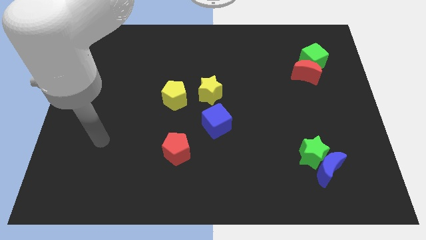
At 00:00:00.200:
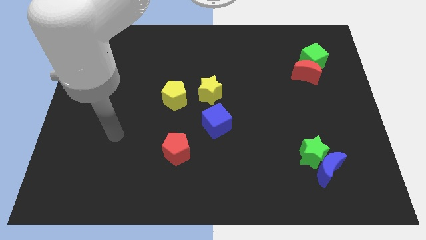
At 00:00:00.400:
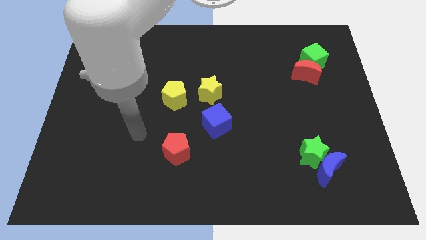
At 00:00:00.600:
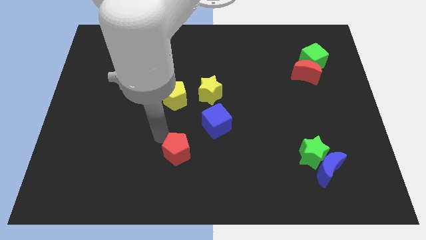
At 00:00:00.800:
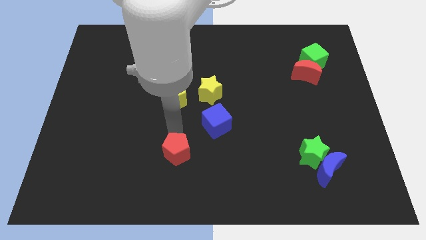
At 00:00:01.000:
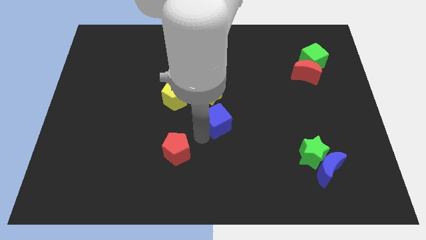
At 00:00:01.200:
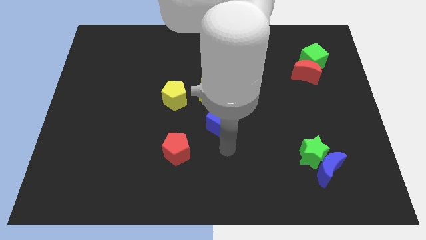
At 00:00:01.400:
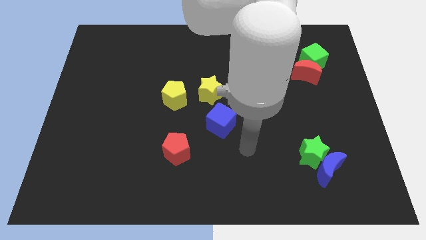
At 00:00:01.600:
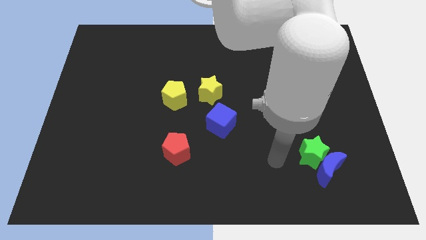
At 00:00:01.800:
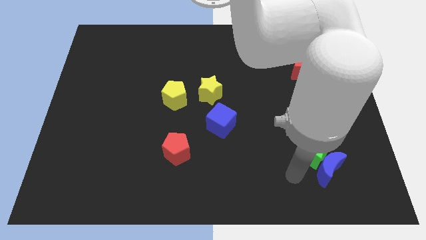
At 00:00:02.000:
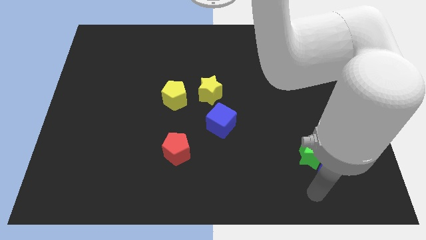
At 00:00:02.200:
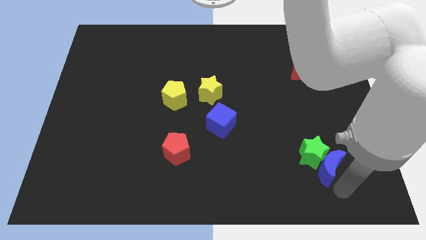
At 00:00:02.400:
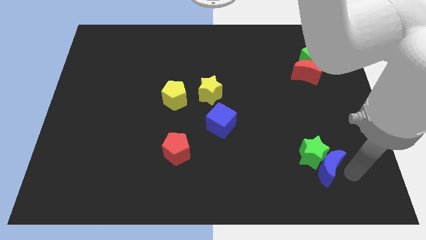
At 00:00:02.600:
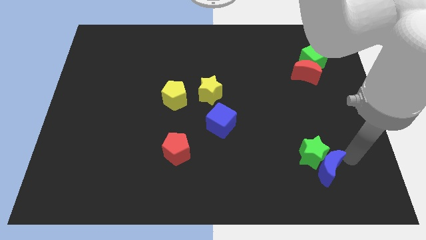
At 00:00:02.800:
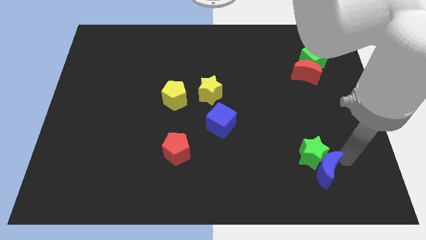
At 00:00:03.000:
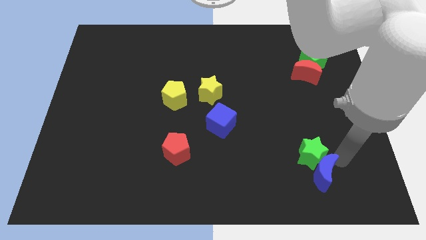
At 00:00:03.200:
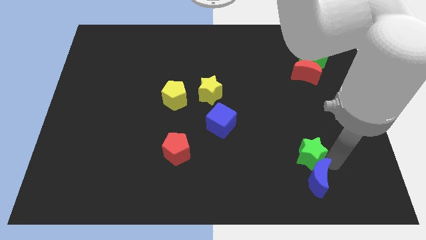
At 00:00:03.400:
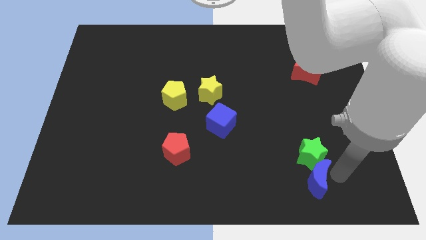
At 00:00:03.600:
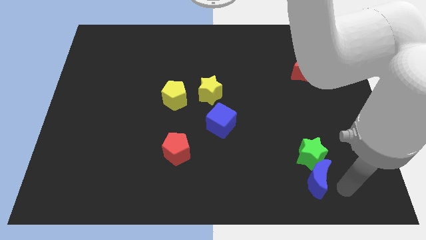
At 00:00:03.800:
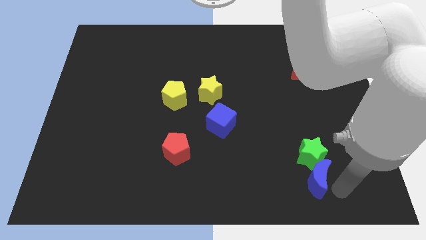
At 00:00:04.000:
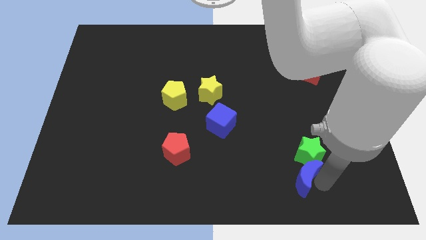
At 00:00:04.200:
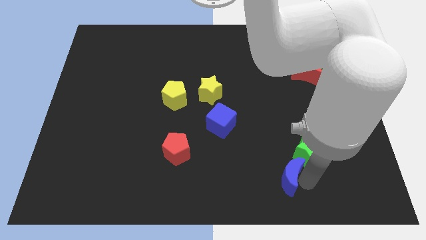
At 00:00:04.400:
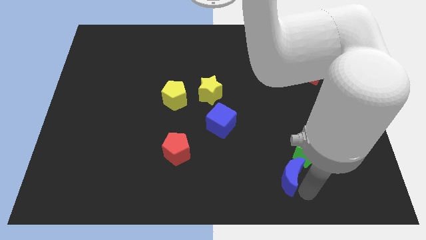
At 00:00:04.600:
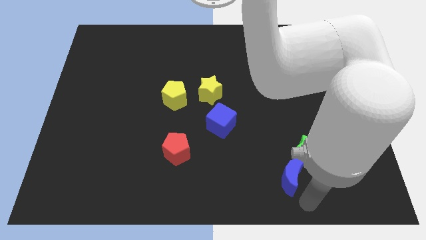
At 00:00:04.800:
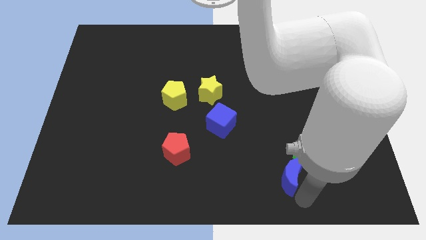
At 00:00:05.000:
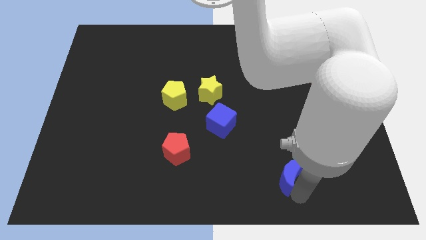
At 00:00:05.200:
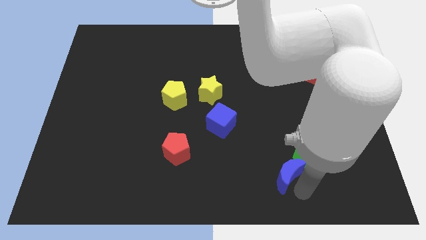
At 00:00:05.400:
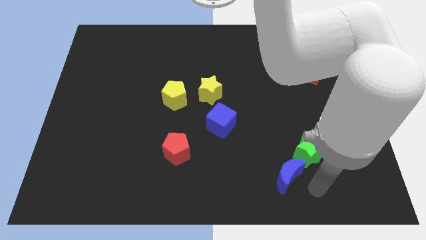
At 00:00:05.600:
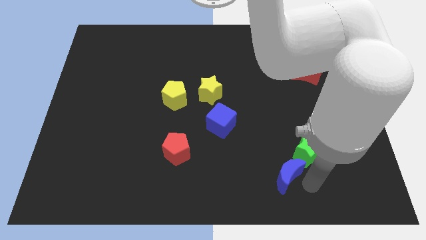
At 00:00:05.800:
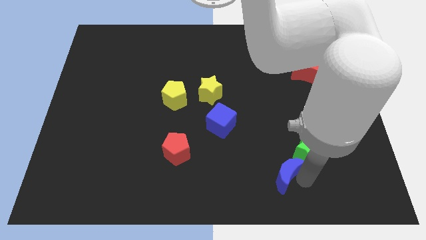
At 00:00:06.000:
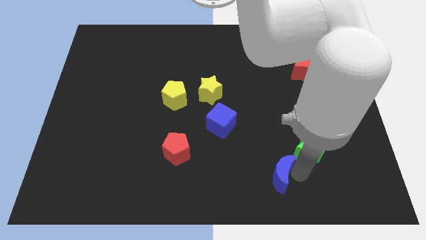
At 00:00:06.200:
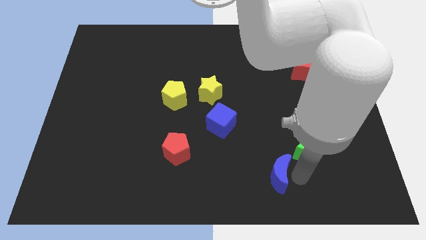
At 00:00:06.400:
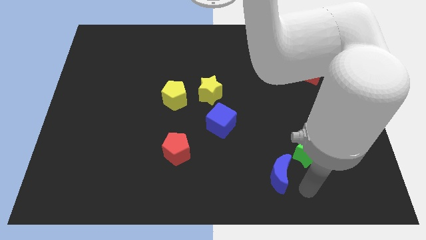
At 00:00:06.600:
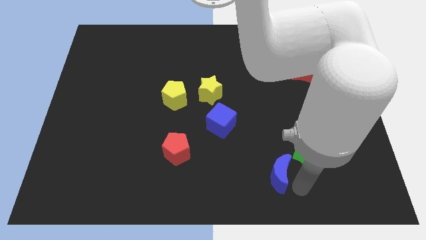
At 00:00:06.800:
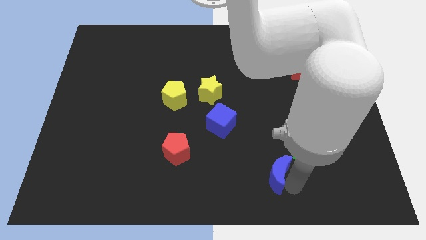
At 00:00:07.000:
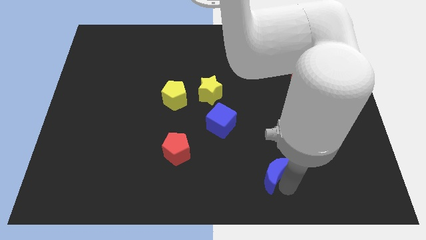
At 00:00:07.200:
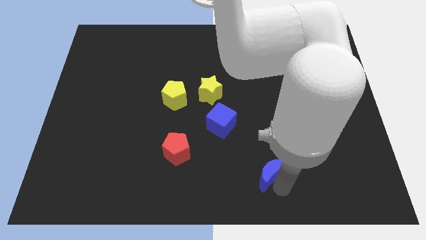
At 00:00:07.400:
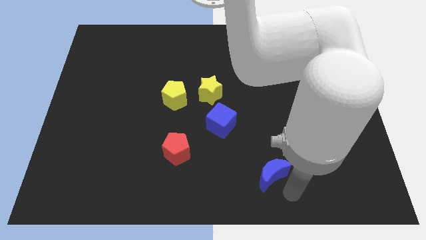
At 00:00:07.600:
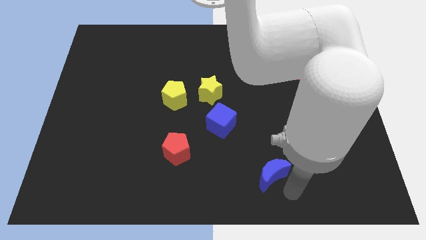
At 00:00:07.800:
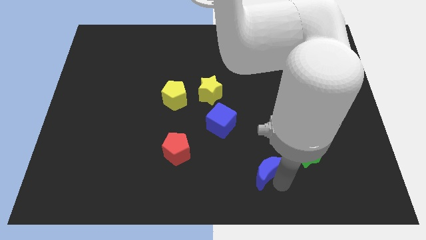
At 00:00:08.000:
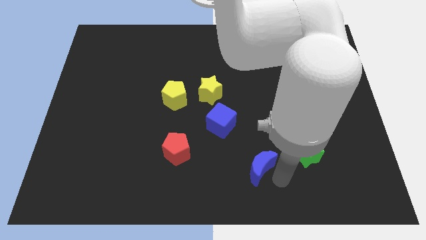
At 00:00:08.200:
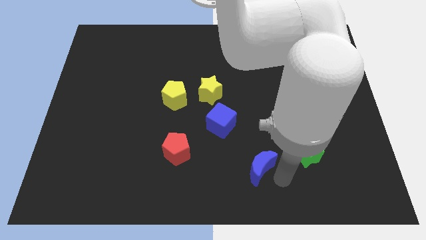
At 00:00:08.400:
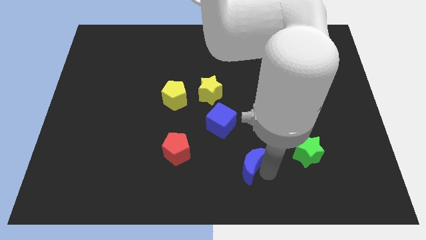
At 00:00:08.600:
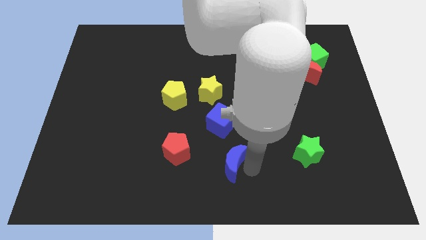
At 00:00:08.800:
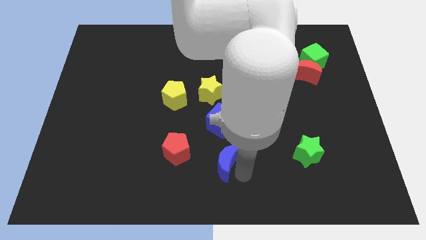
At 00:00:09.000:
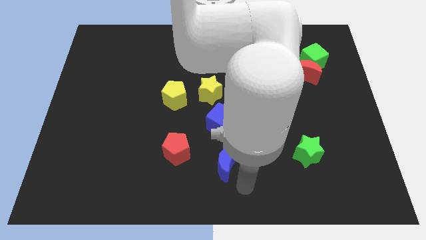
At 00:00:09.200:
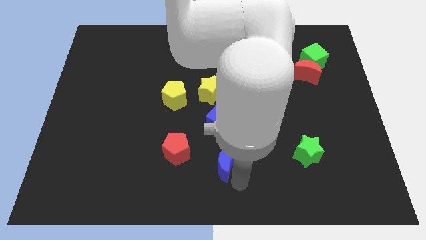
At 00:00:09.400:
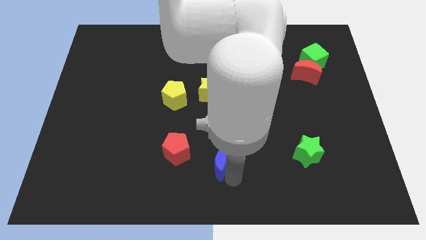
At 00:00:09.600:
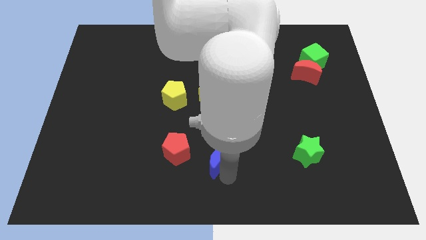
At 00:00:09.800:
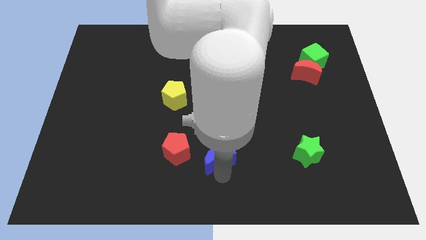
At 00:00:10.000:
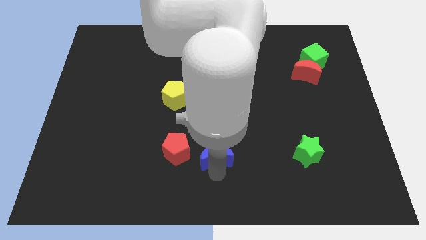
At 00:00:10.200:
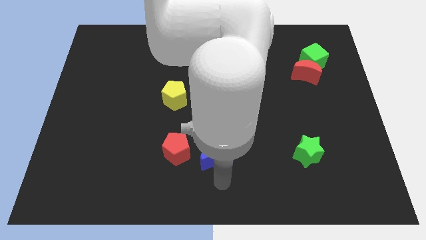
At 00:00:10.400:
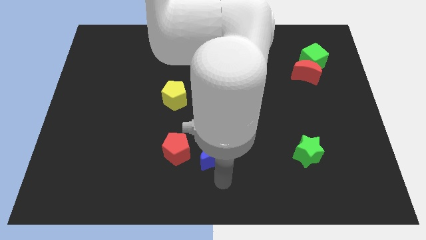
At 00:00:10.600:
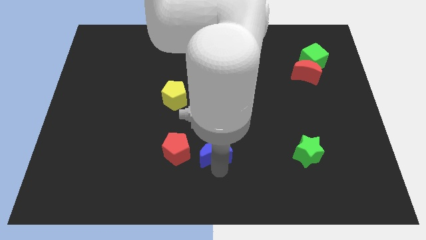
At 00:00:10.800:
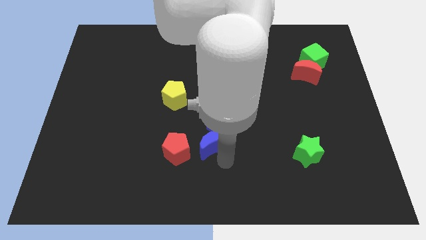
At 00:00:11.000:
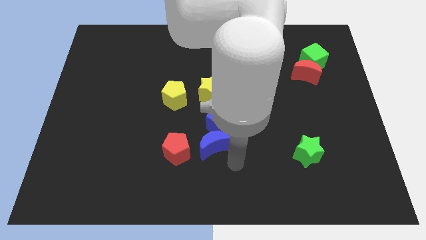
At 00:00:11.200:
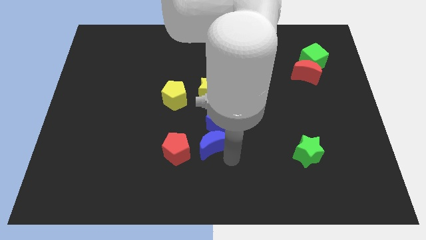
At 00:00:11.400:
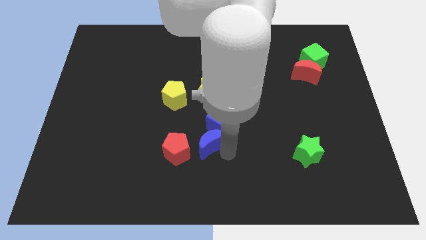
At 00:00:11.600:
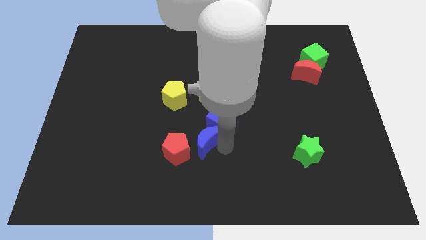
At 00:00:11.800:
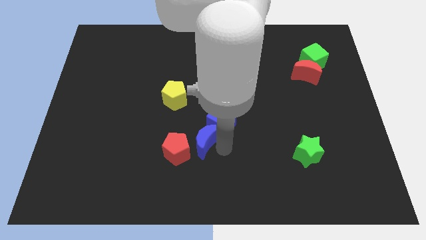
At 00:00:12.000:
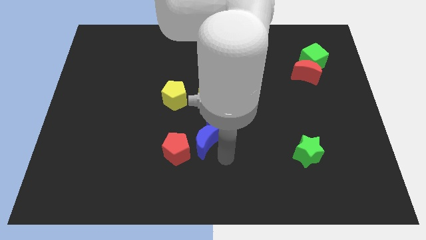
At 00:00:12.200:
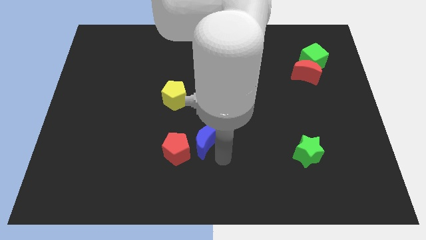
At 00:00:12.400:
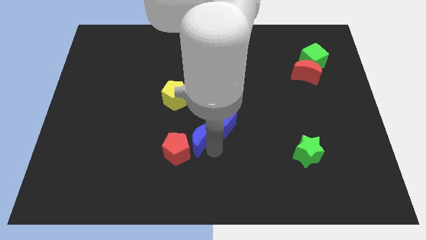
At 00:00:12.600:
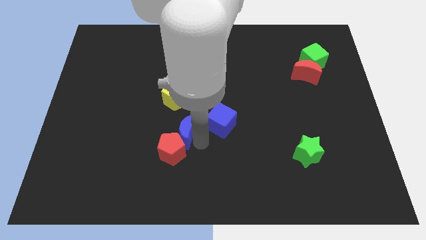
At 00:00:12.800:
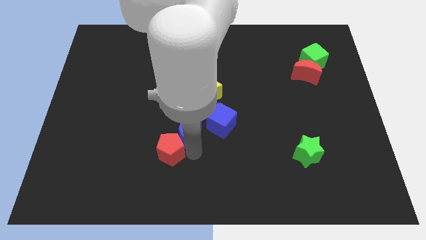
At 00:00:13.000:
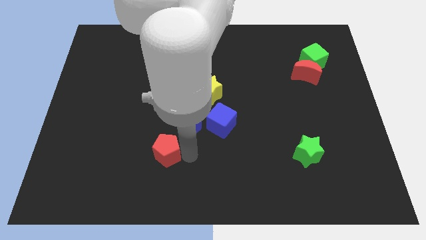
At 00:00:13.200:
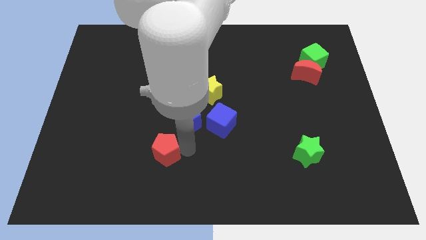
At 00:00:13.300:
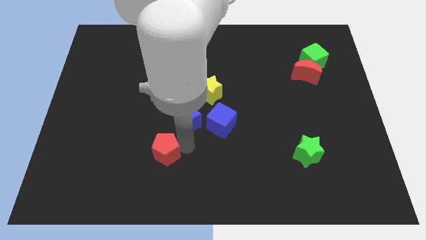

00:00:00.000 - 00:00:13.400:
move the blue moon to the bottom left of the yellow star
